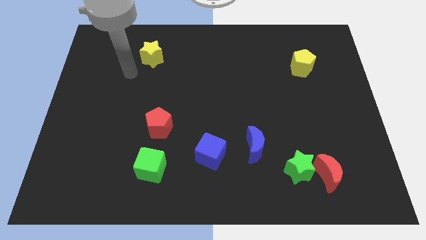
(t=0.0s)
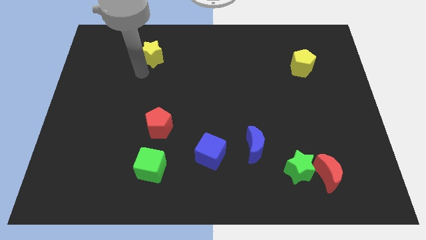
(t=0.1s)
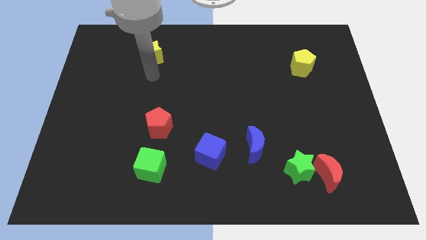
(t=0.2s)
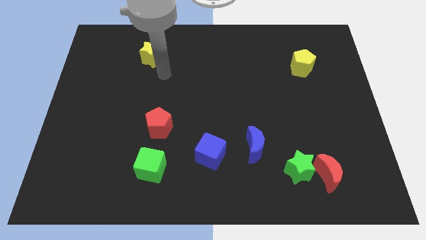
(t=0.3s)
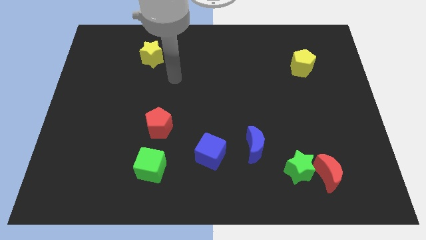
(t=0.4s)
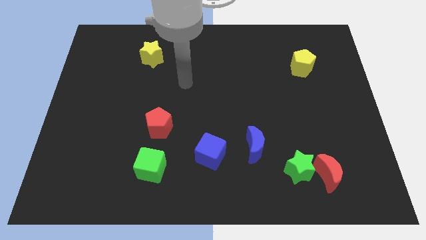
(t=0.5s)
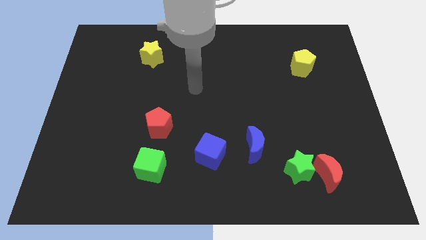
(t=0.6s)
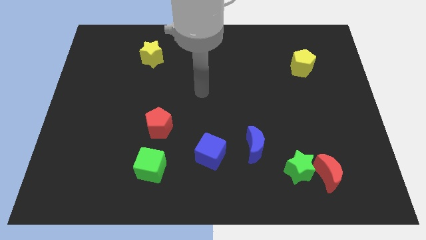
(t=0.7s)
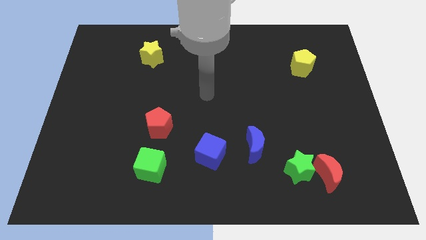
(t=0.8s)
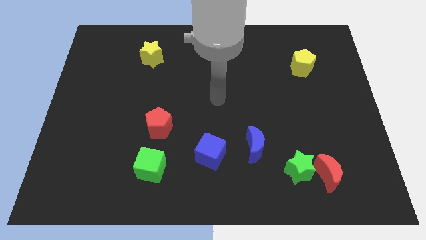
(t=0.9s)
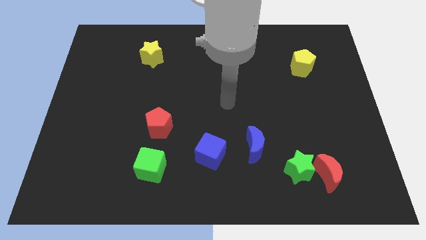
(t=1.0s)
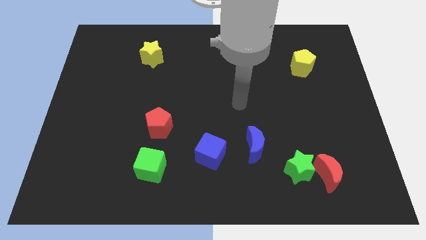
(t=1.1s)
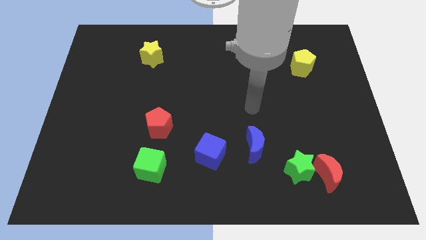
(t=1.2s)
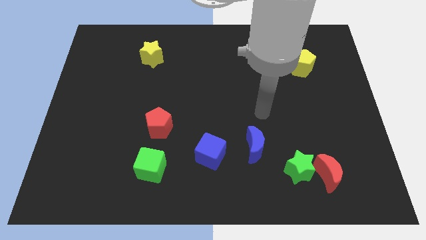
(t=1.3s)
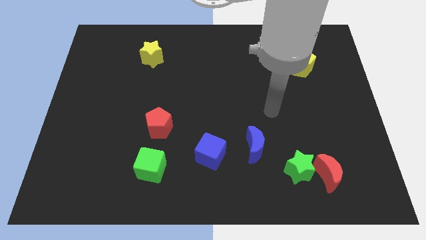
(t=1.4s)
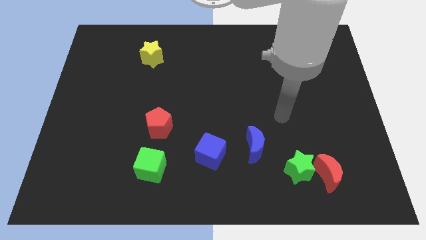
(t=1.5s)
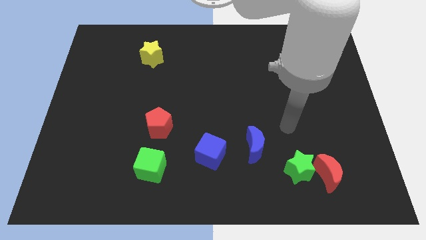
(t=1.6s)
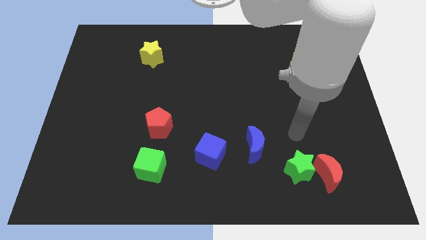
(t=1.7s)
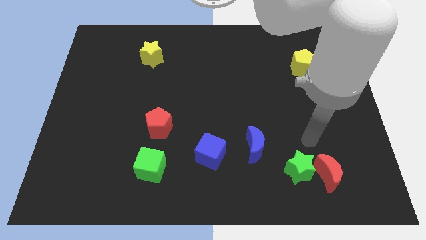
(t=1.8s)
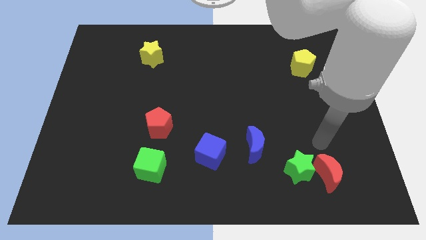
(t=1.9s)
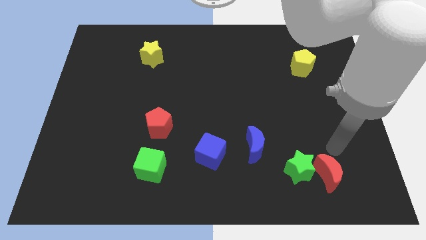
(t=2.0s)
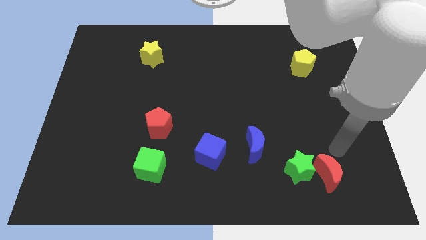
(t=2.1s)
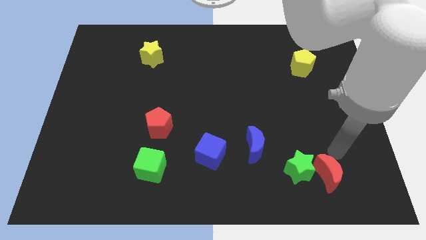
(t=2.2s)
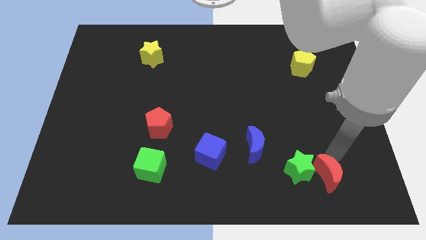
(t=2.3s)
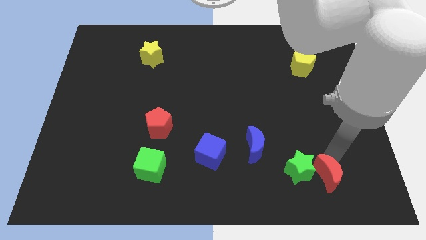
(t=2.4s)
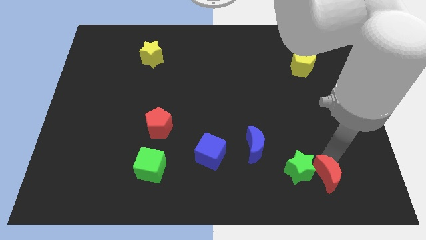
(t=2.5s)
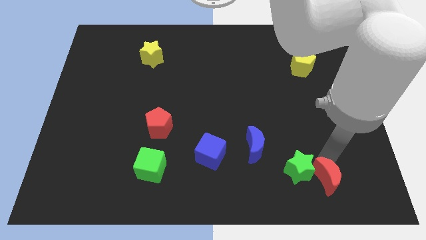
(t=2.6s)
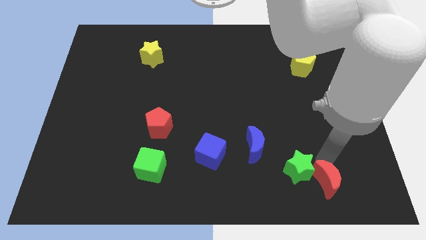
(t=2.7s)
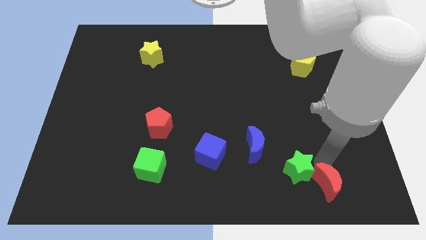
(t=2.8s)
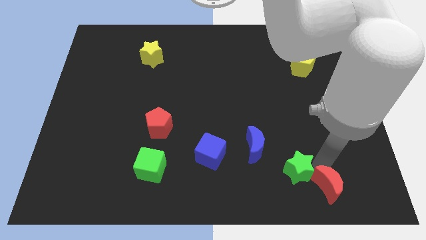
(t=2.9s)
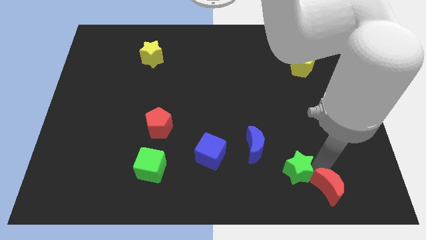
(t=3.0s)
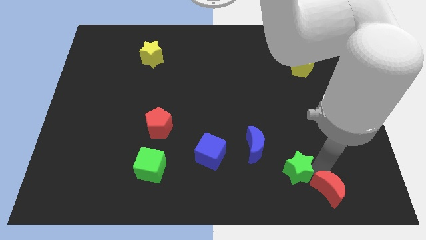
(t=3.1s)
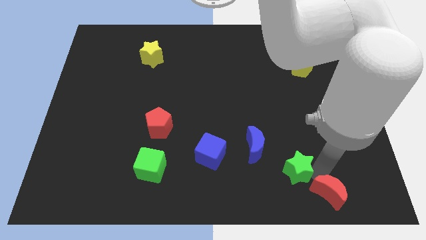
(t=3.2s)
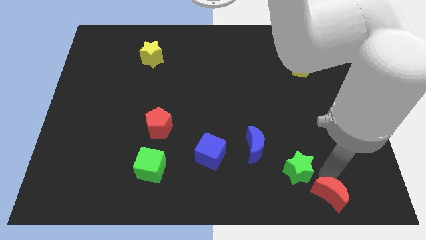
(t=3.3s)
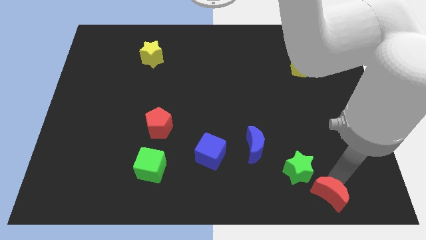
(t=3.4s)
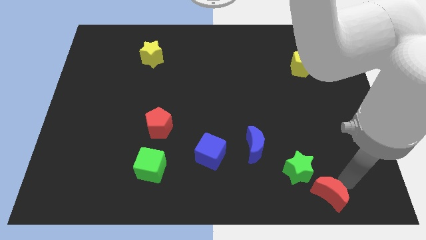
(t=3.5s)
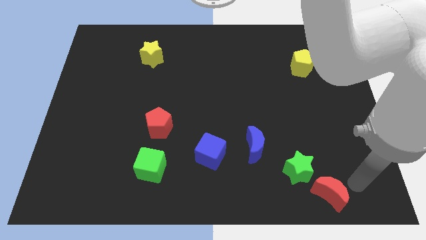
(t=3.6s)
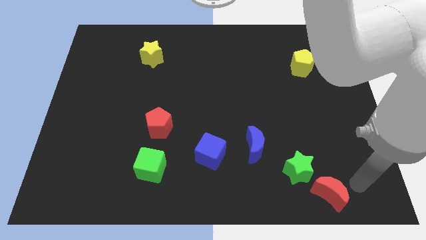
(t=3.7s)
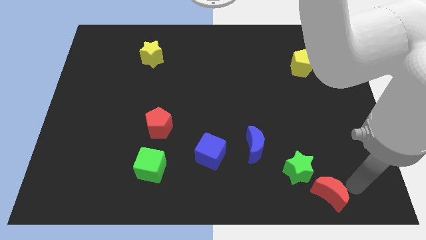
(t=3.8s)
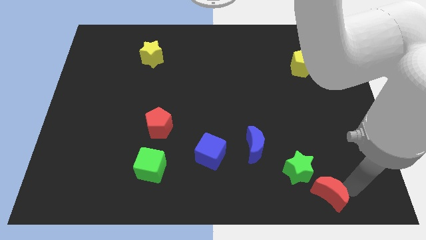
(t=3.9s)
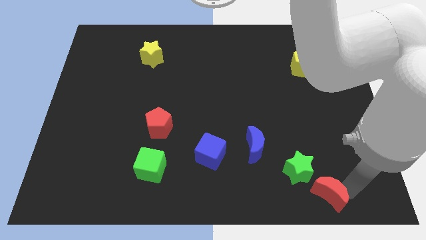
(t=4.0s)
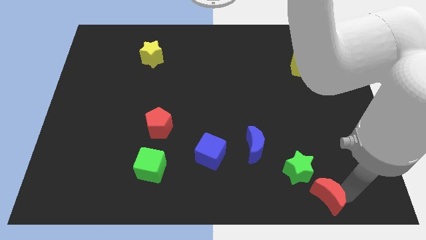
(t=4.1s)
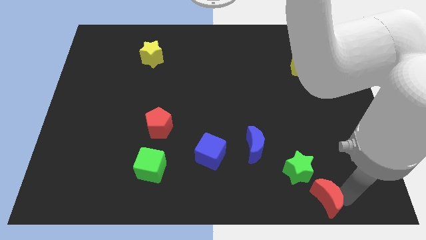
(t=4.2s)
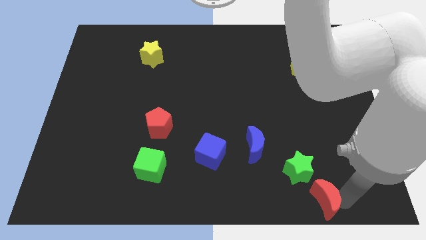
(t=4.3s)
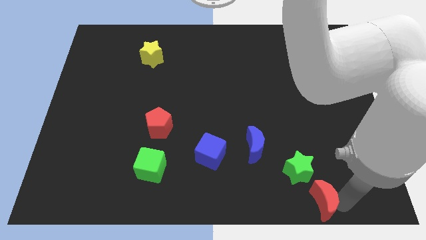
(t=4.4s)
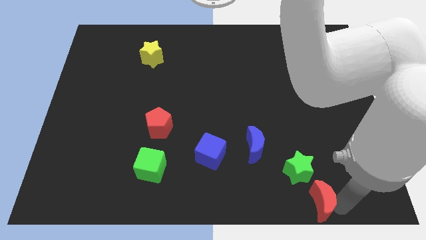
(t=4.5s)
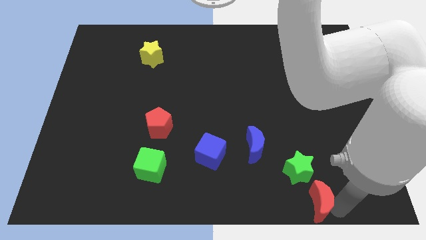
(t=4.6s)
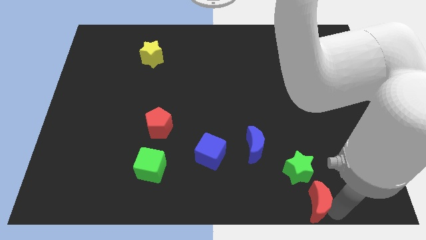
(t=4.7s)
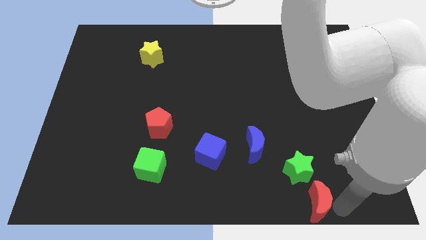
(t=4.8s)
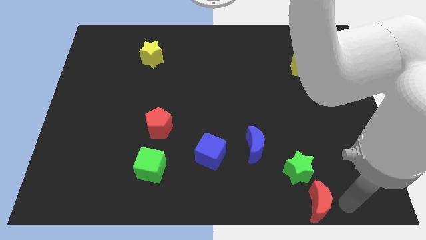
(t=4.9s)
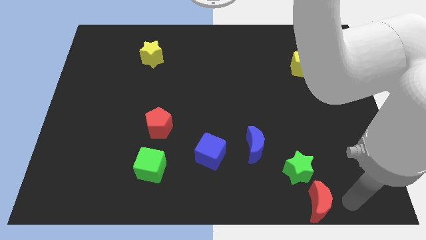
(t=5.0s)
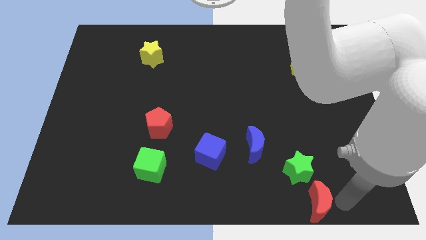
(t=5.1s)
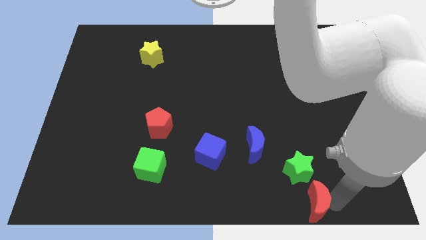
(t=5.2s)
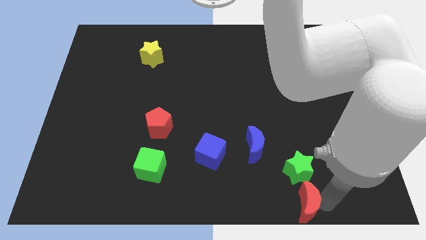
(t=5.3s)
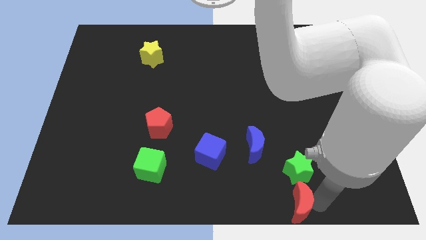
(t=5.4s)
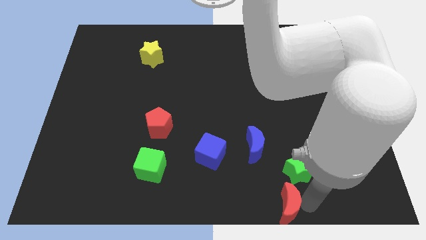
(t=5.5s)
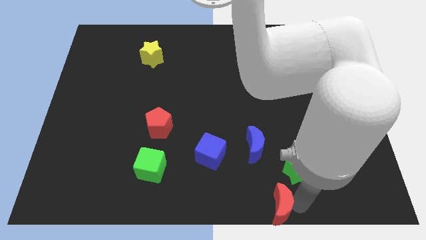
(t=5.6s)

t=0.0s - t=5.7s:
slide the red moon to the bottom side

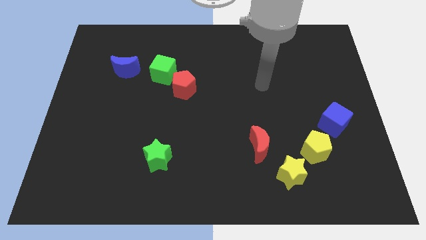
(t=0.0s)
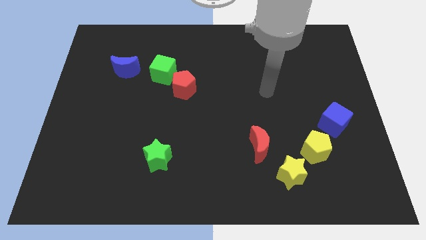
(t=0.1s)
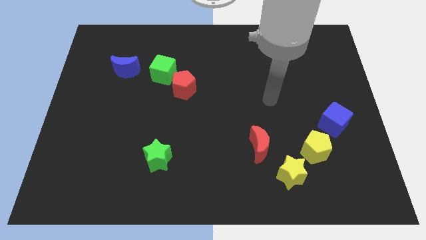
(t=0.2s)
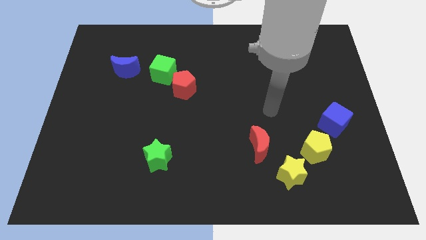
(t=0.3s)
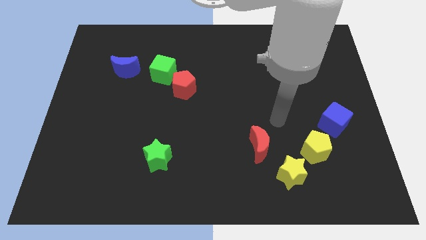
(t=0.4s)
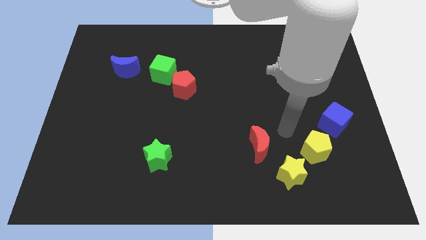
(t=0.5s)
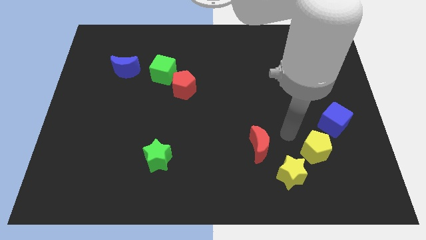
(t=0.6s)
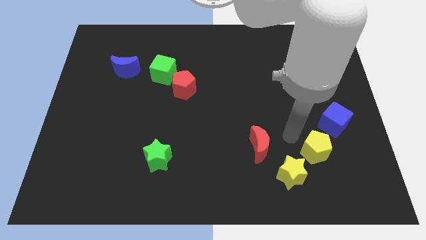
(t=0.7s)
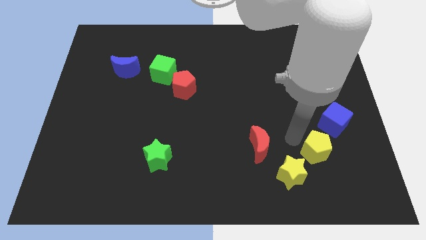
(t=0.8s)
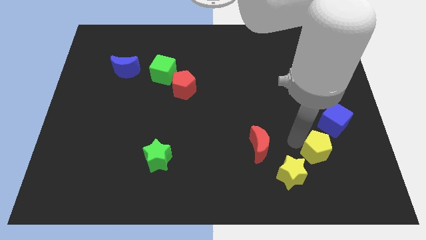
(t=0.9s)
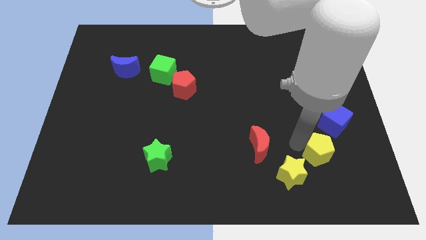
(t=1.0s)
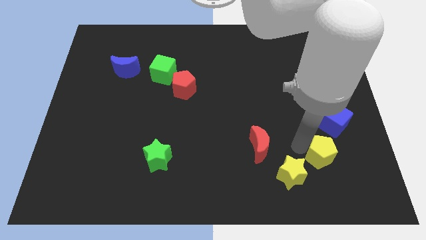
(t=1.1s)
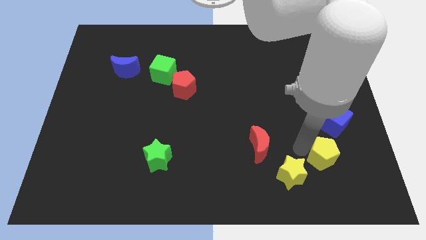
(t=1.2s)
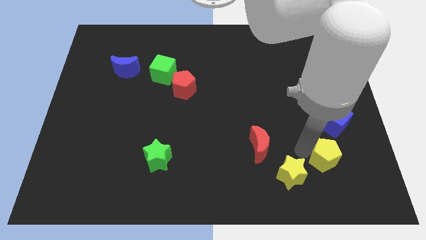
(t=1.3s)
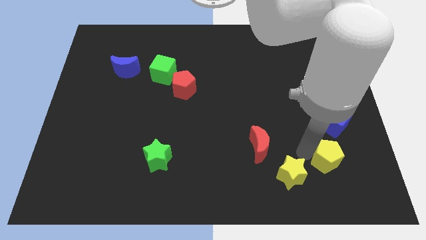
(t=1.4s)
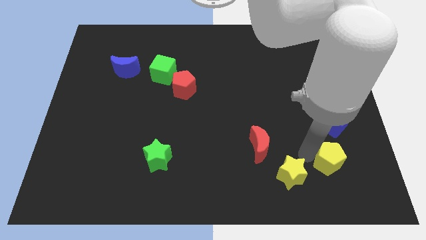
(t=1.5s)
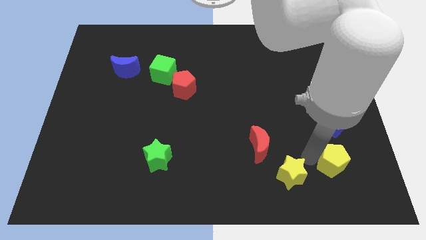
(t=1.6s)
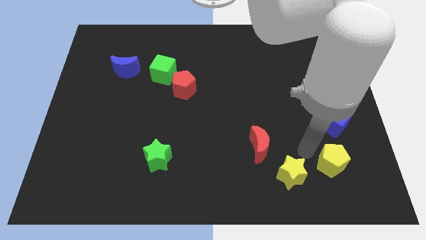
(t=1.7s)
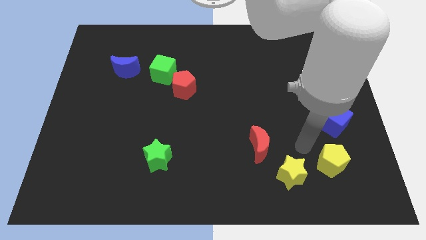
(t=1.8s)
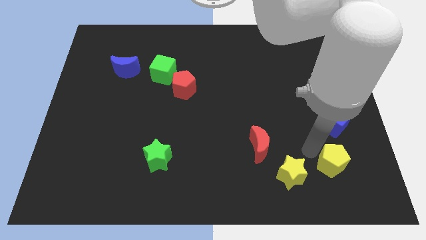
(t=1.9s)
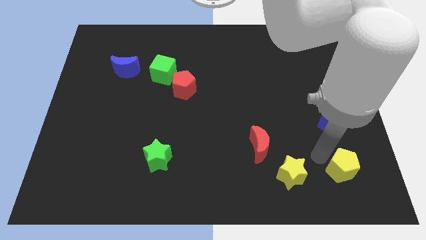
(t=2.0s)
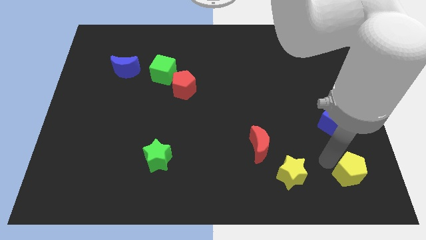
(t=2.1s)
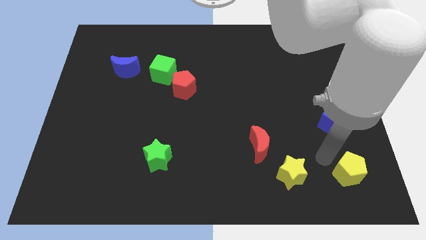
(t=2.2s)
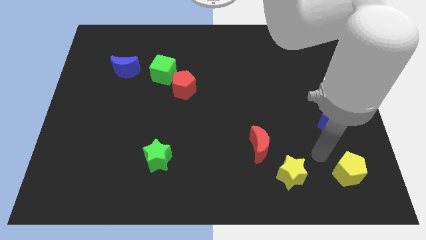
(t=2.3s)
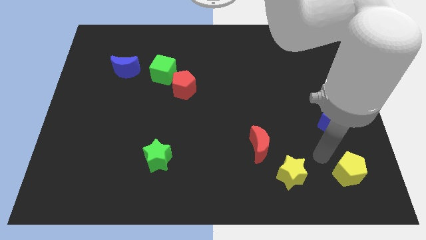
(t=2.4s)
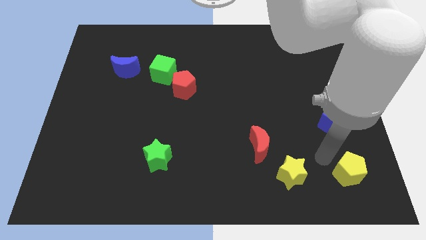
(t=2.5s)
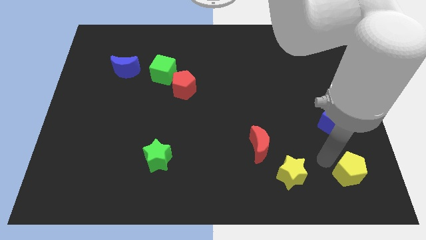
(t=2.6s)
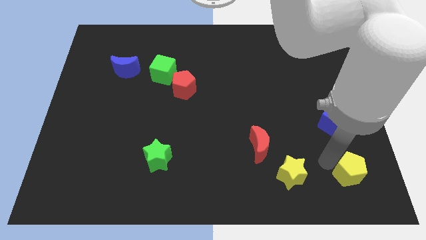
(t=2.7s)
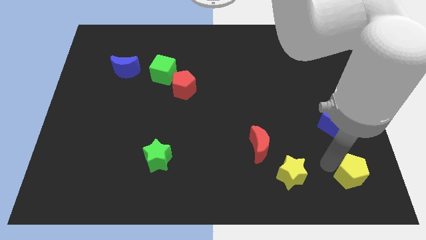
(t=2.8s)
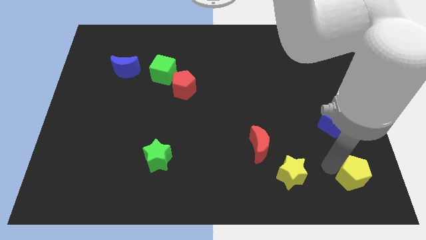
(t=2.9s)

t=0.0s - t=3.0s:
move the yellow pentagon to the bottom right of the board
